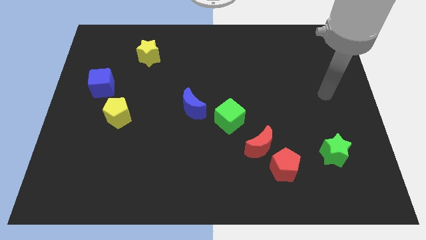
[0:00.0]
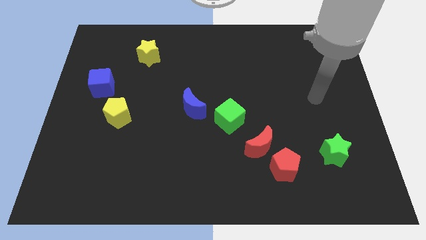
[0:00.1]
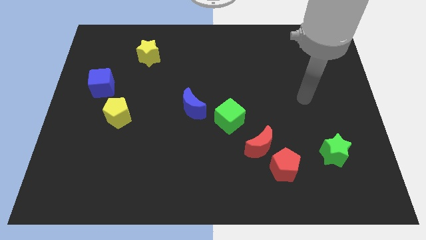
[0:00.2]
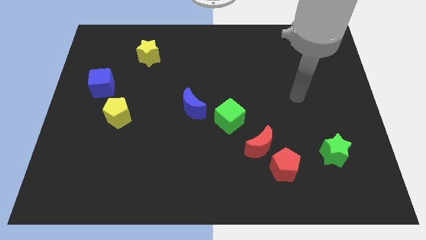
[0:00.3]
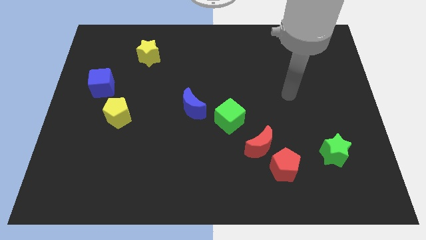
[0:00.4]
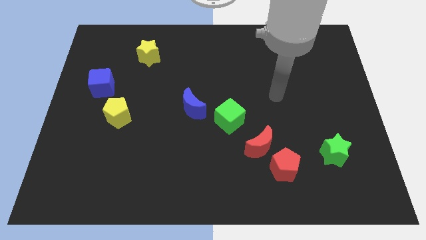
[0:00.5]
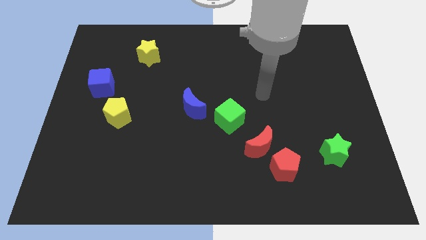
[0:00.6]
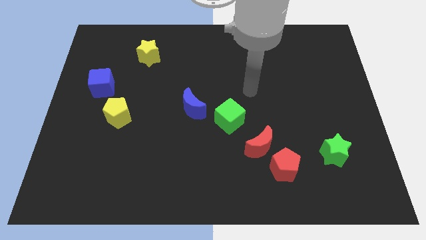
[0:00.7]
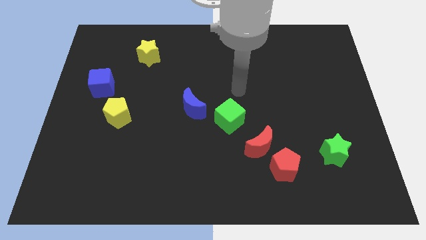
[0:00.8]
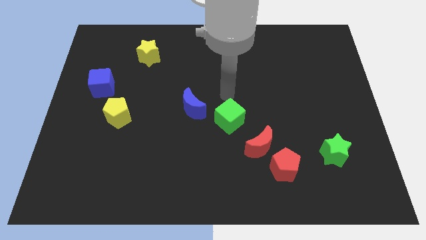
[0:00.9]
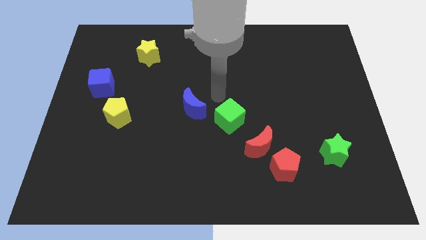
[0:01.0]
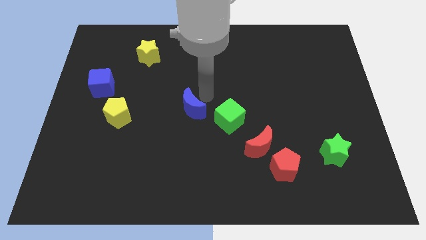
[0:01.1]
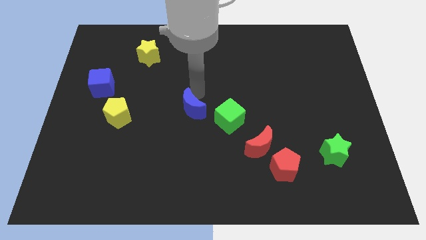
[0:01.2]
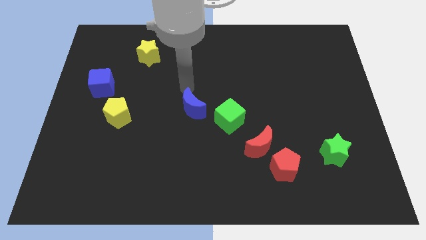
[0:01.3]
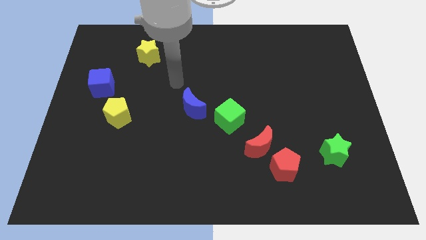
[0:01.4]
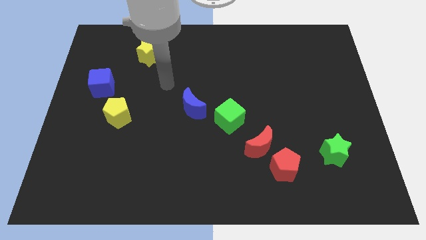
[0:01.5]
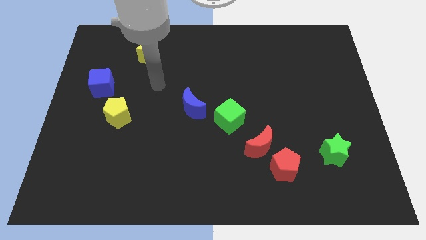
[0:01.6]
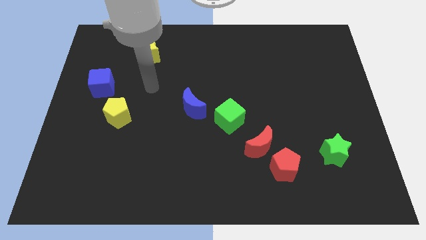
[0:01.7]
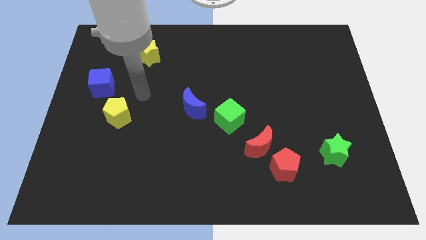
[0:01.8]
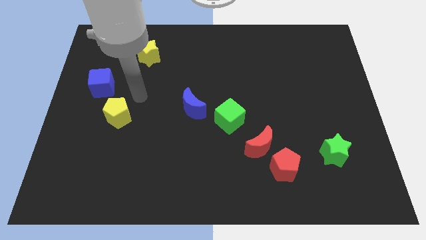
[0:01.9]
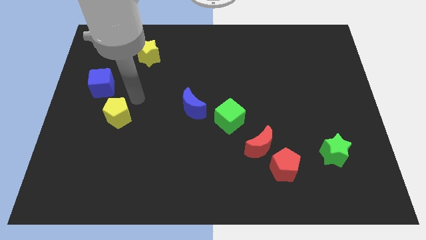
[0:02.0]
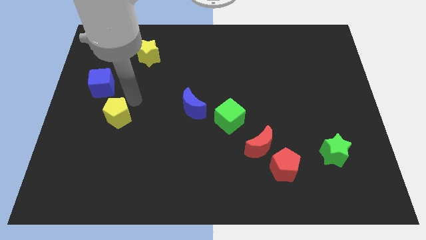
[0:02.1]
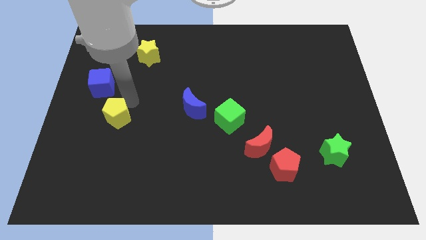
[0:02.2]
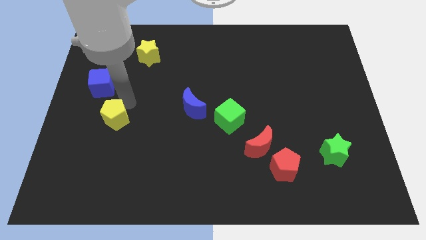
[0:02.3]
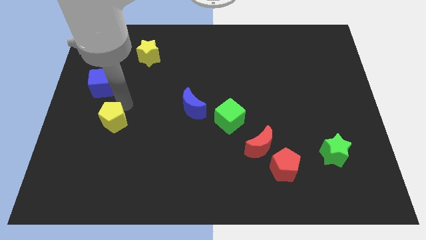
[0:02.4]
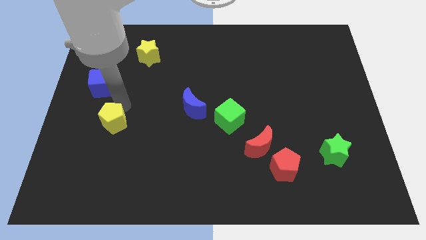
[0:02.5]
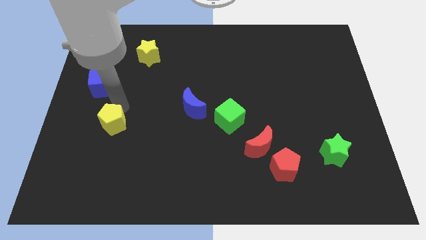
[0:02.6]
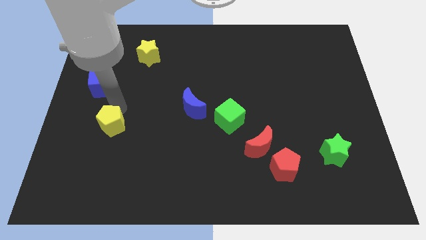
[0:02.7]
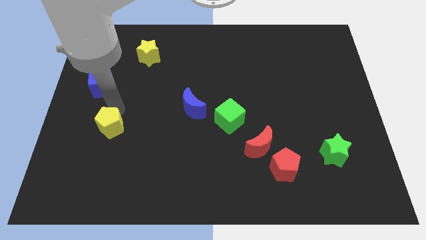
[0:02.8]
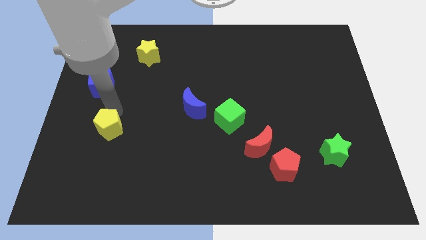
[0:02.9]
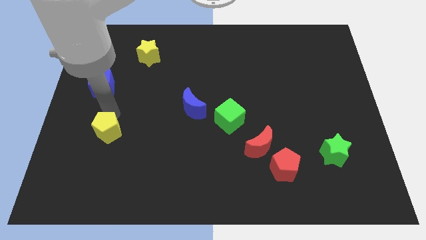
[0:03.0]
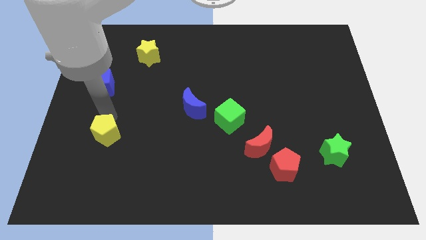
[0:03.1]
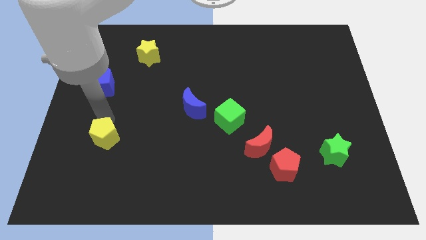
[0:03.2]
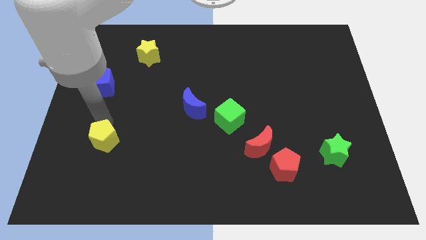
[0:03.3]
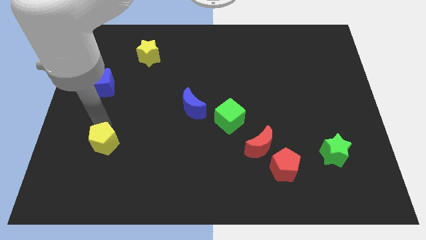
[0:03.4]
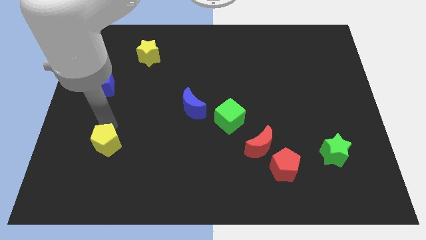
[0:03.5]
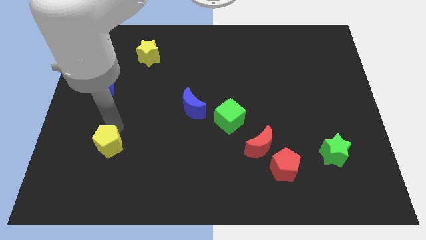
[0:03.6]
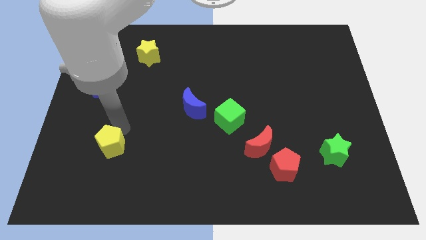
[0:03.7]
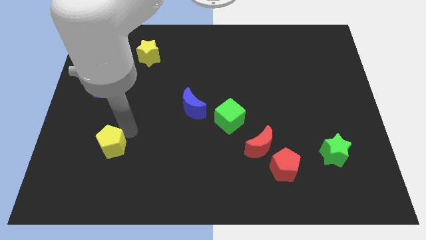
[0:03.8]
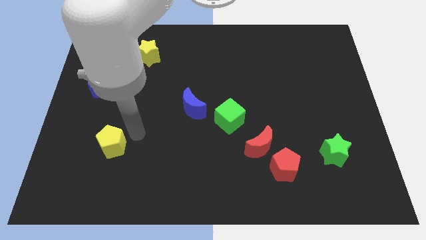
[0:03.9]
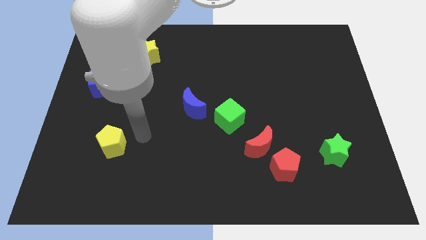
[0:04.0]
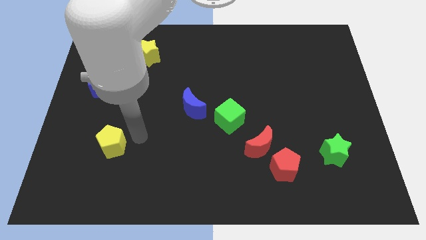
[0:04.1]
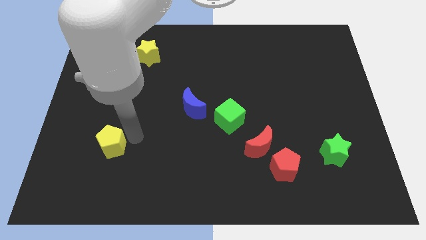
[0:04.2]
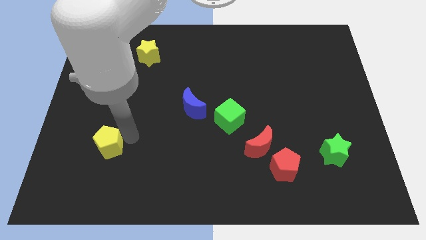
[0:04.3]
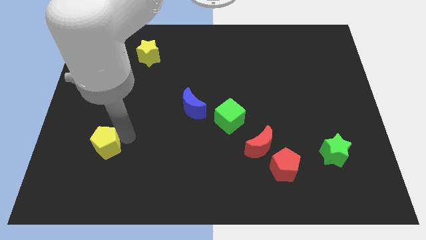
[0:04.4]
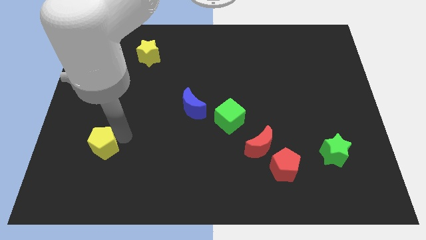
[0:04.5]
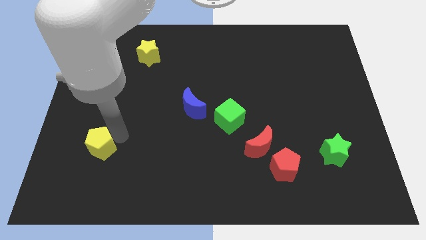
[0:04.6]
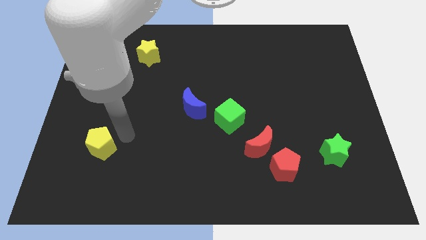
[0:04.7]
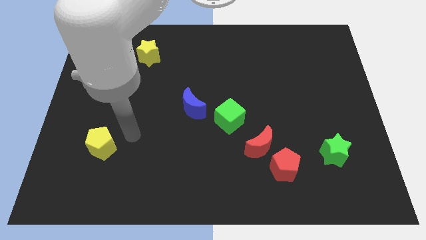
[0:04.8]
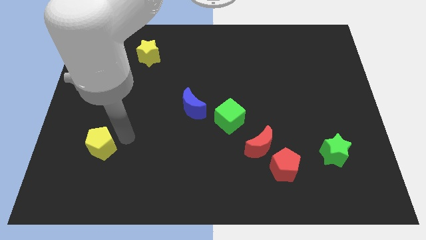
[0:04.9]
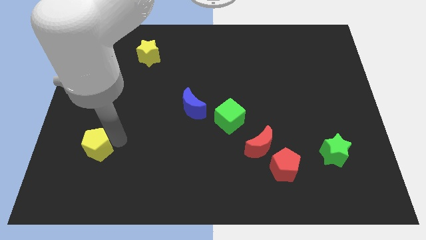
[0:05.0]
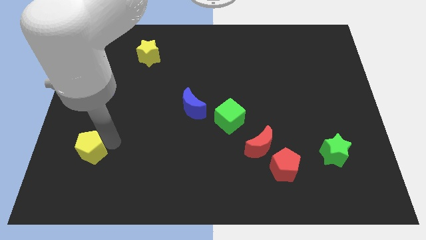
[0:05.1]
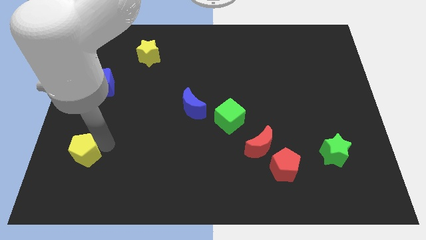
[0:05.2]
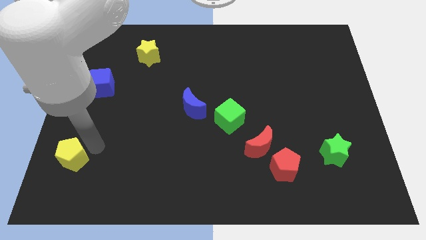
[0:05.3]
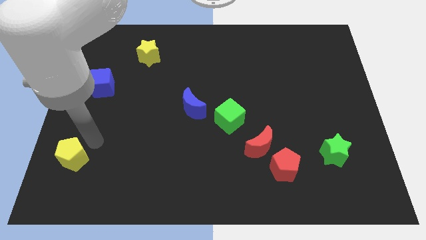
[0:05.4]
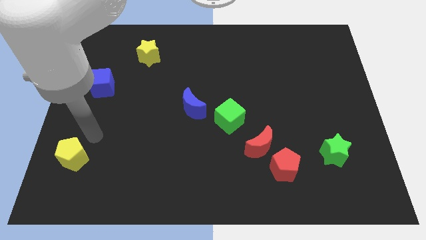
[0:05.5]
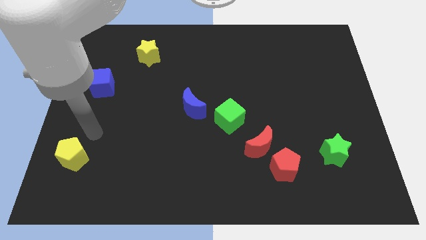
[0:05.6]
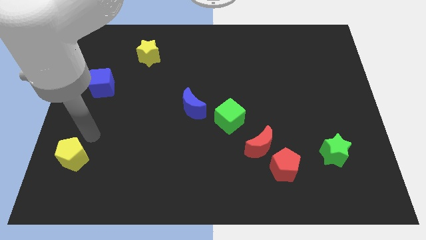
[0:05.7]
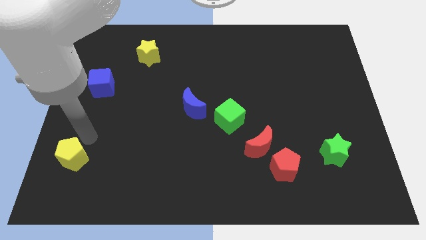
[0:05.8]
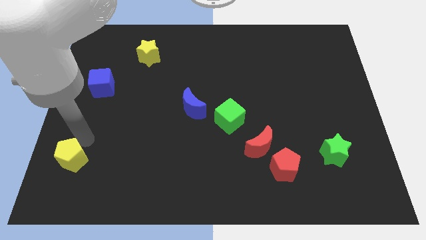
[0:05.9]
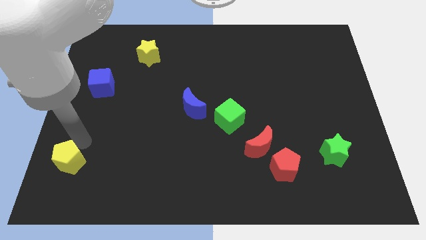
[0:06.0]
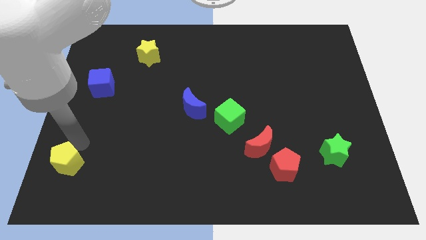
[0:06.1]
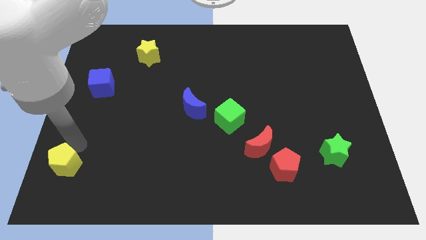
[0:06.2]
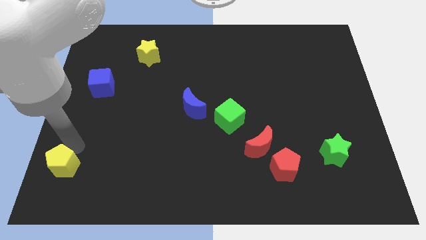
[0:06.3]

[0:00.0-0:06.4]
push the yellow pentagon to the bottom left corner

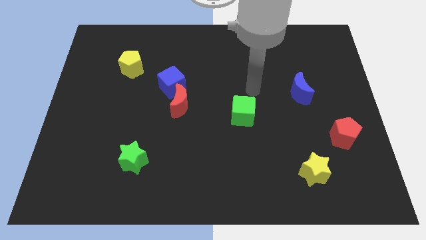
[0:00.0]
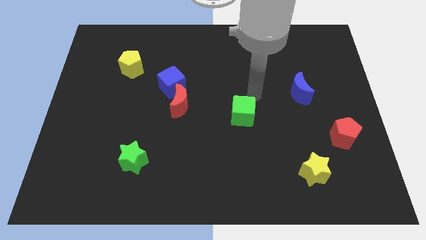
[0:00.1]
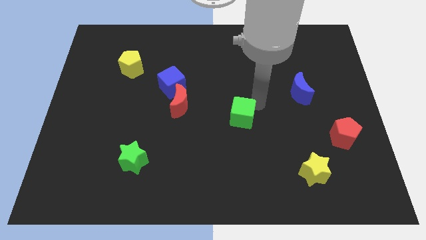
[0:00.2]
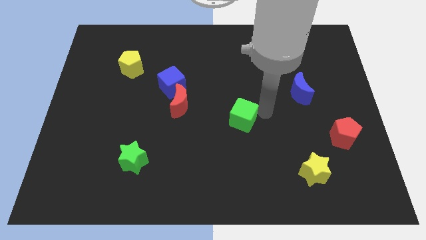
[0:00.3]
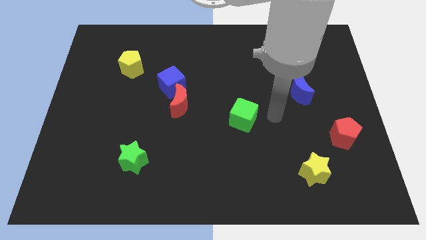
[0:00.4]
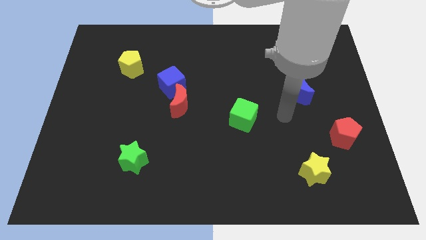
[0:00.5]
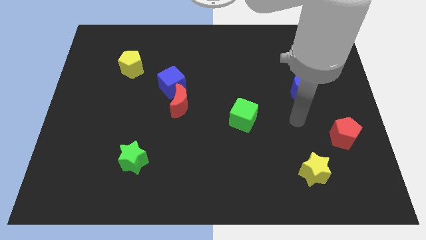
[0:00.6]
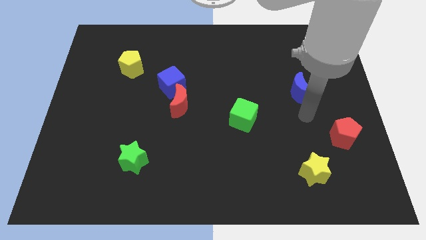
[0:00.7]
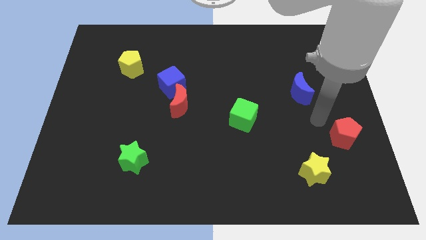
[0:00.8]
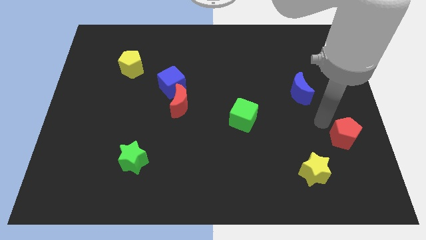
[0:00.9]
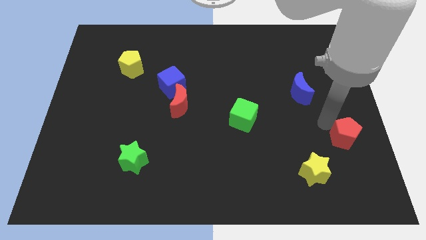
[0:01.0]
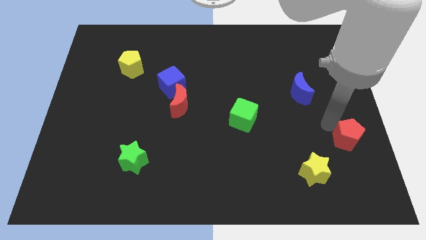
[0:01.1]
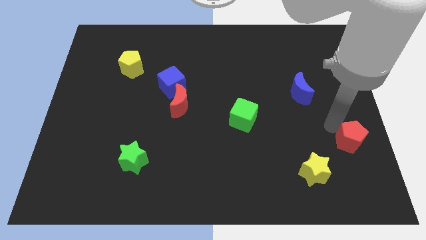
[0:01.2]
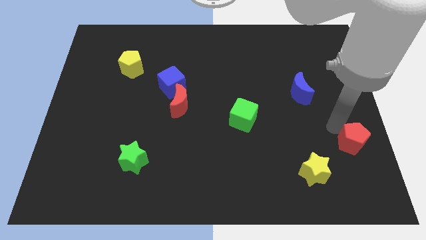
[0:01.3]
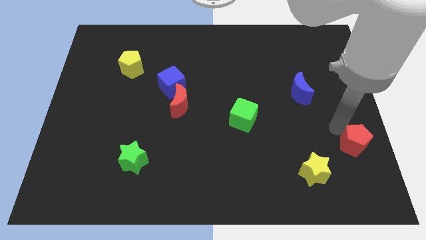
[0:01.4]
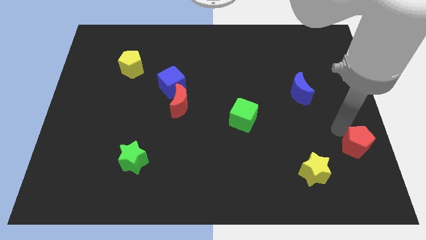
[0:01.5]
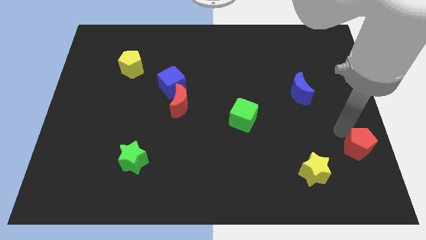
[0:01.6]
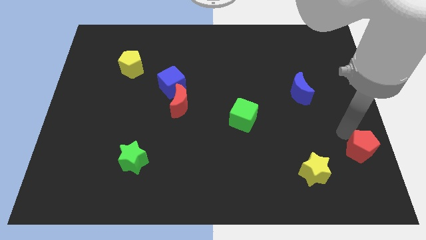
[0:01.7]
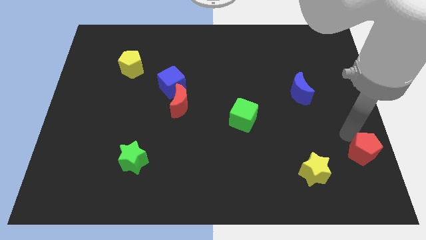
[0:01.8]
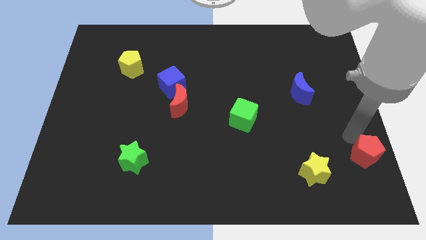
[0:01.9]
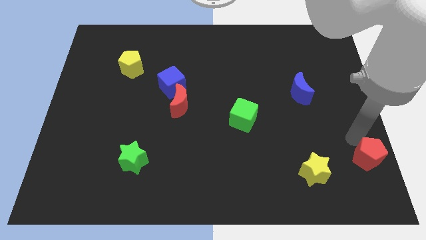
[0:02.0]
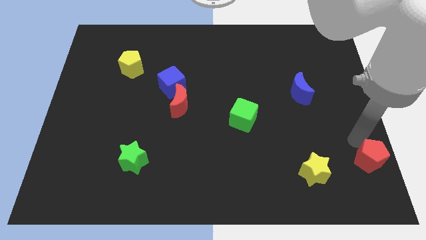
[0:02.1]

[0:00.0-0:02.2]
put the red pentagon to the bottom right corner
